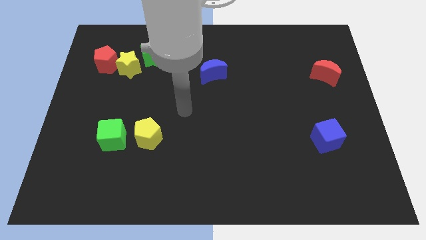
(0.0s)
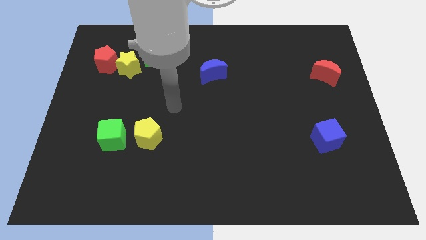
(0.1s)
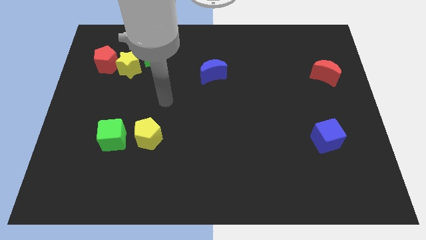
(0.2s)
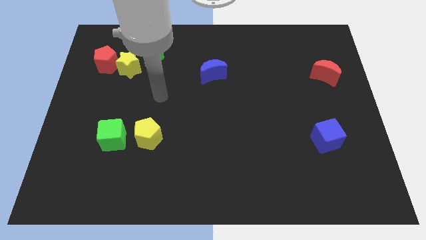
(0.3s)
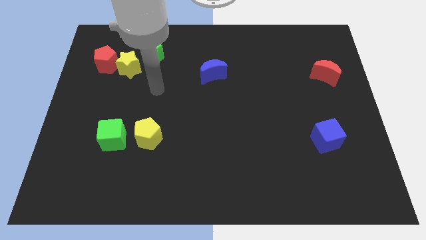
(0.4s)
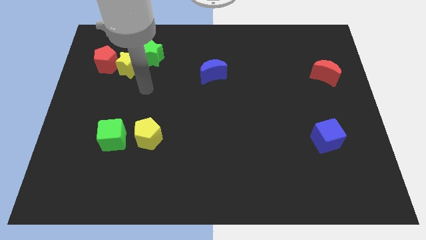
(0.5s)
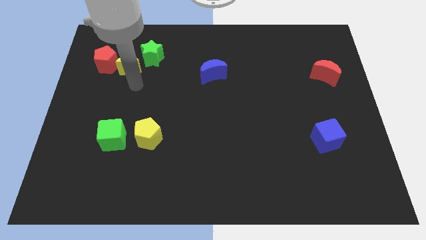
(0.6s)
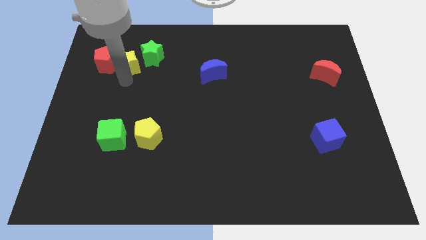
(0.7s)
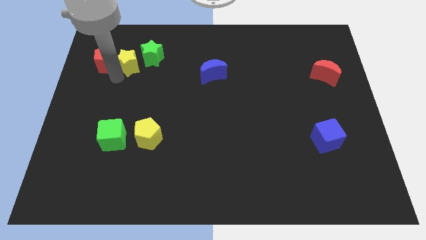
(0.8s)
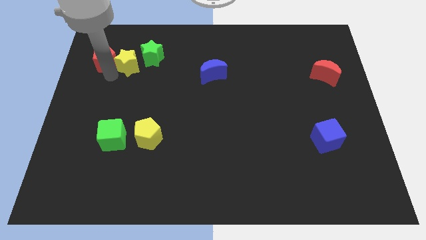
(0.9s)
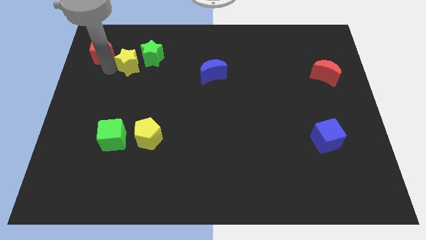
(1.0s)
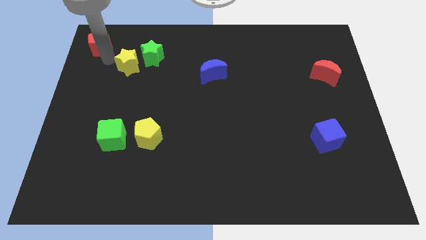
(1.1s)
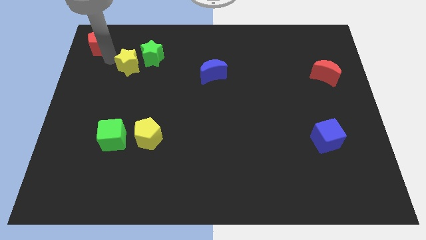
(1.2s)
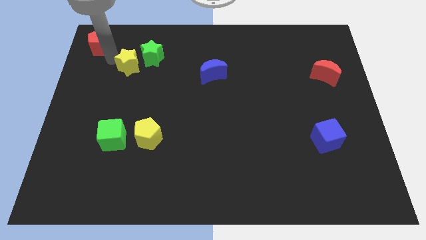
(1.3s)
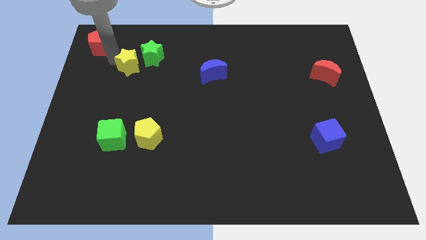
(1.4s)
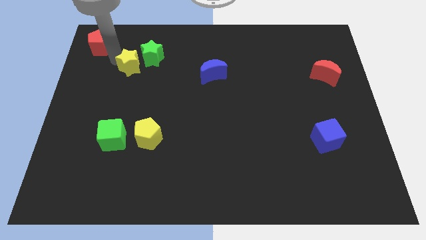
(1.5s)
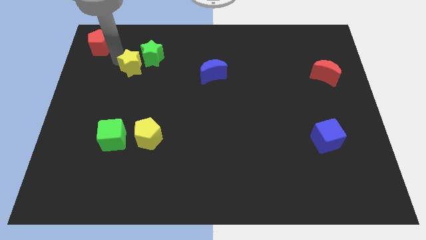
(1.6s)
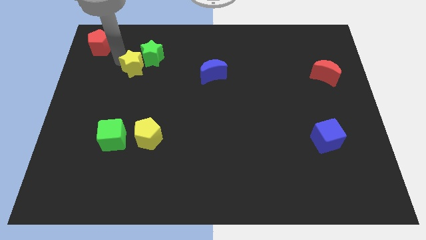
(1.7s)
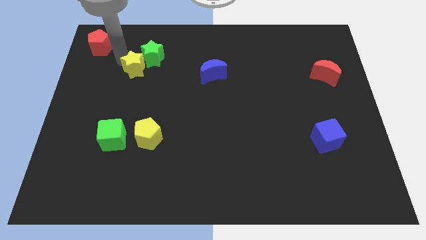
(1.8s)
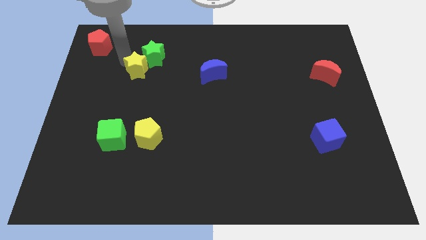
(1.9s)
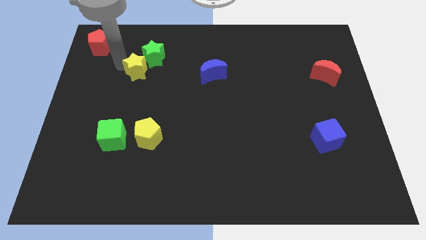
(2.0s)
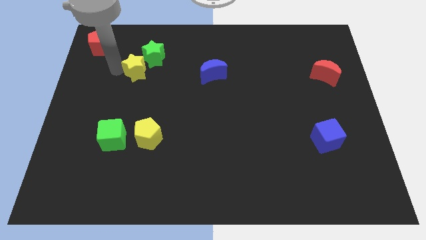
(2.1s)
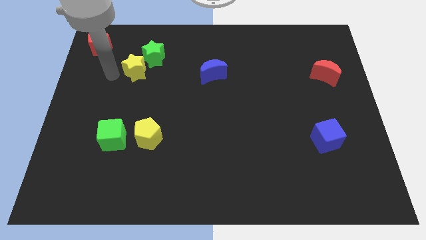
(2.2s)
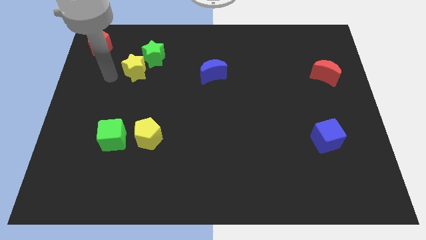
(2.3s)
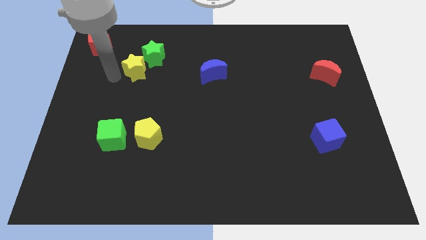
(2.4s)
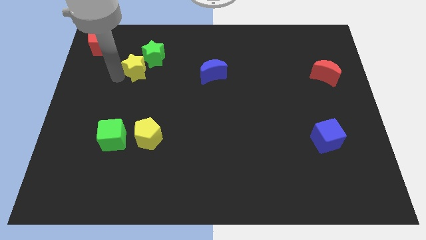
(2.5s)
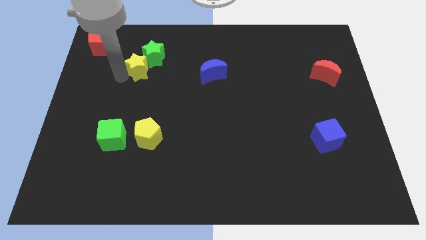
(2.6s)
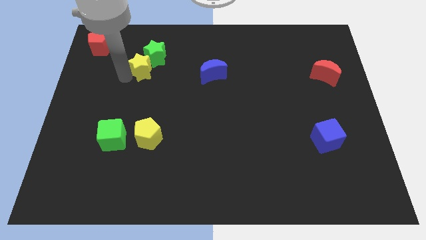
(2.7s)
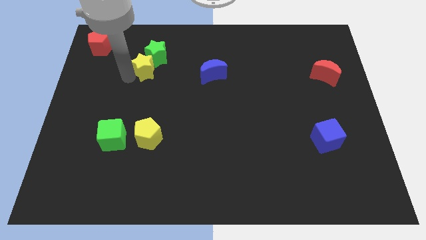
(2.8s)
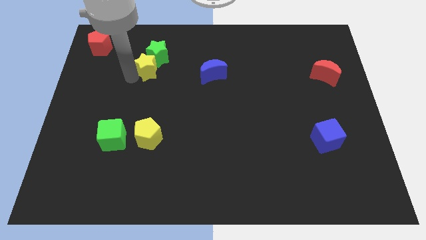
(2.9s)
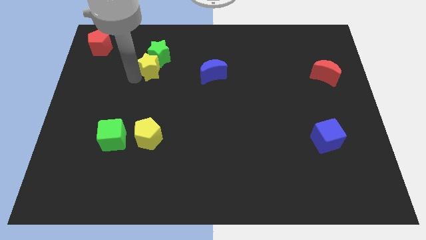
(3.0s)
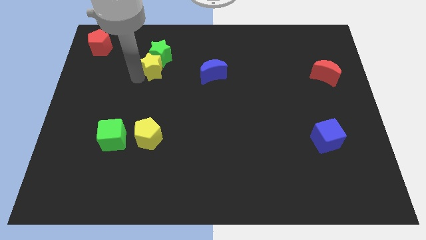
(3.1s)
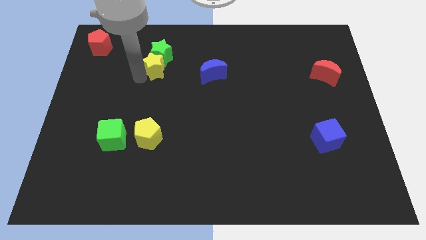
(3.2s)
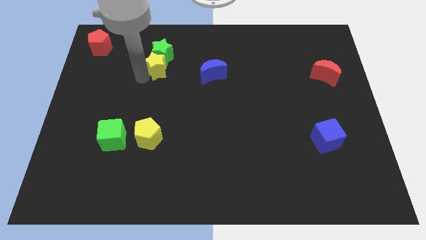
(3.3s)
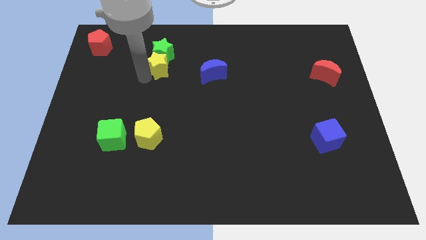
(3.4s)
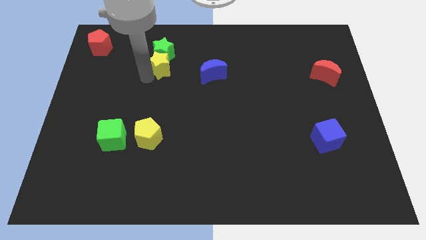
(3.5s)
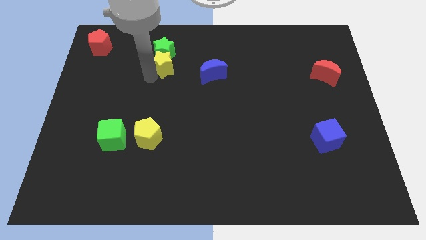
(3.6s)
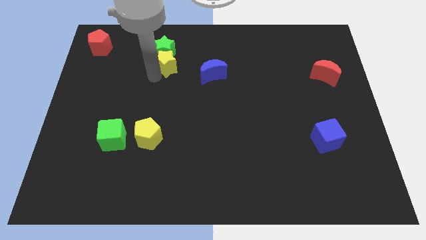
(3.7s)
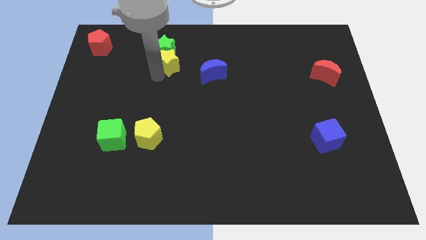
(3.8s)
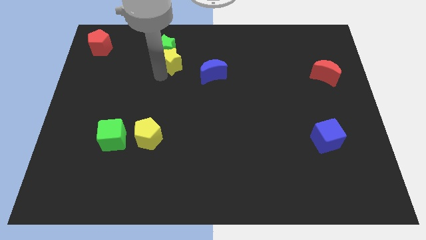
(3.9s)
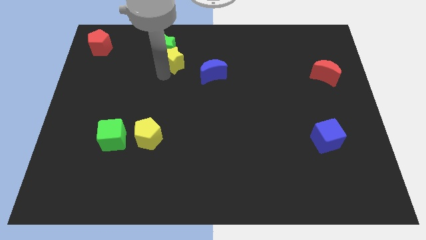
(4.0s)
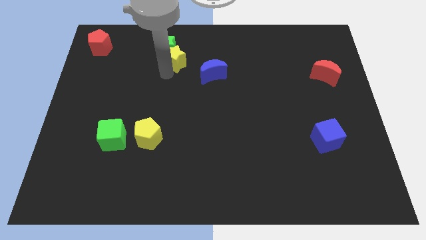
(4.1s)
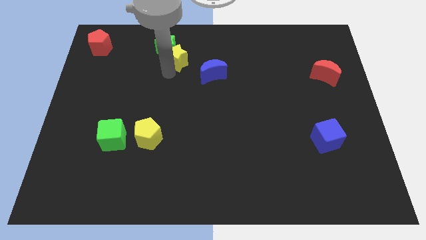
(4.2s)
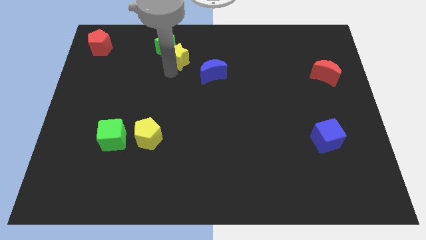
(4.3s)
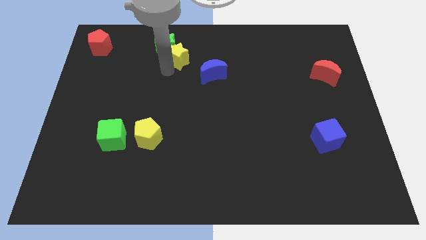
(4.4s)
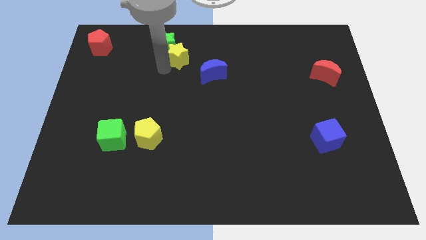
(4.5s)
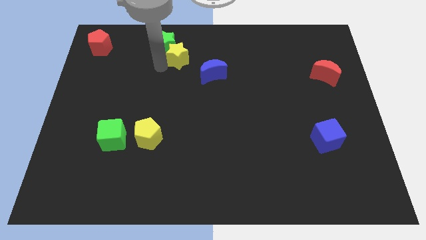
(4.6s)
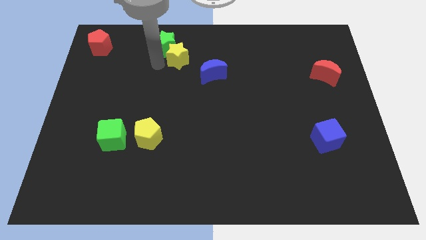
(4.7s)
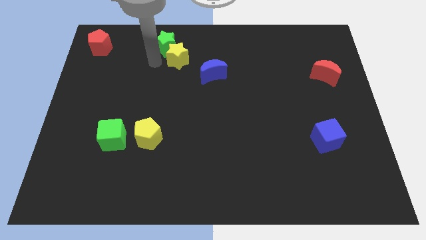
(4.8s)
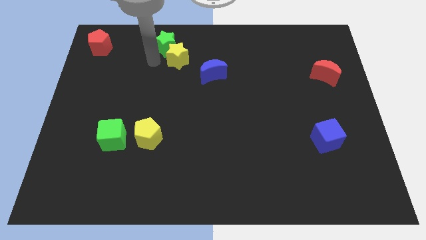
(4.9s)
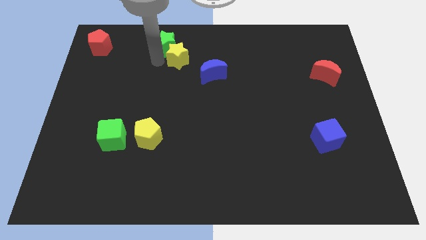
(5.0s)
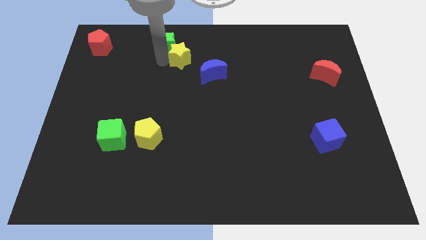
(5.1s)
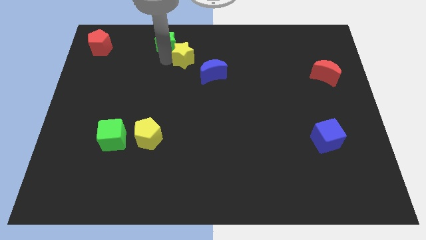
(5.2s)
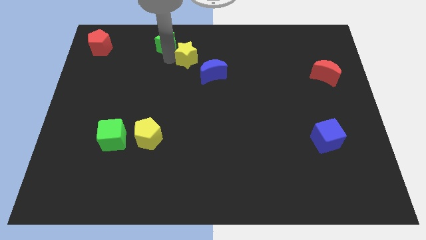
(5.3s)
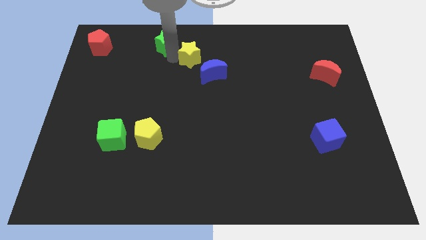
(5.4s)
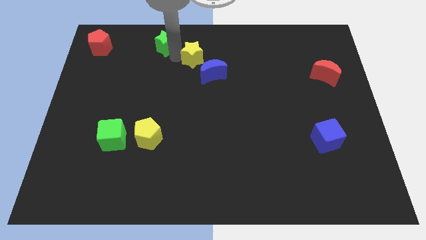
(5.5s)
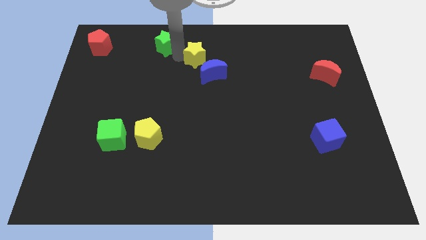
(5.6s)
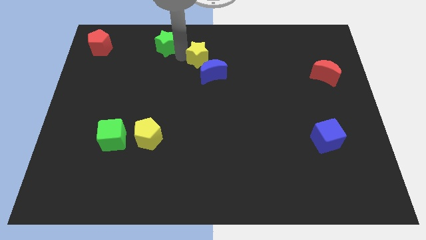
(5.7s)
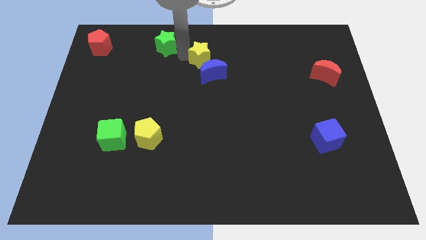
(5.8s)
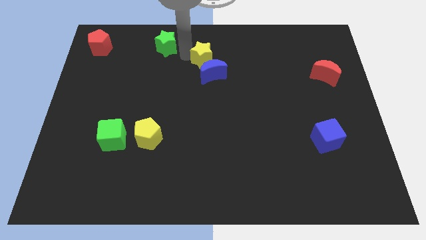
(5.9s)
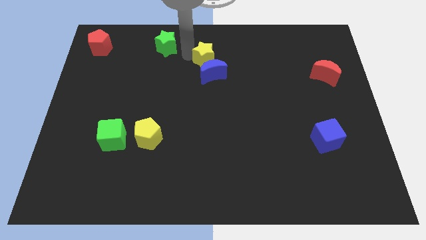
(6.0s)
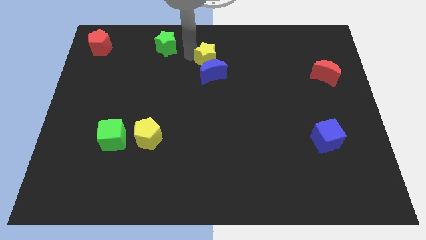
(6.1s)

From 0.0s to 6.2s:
put the yellow star to the top right of the blue moon

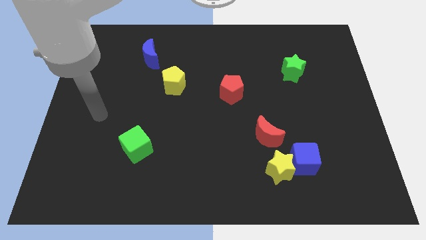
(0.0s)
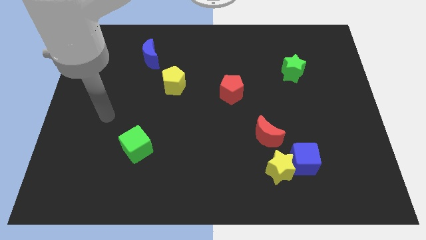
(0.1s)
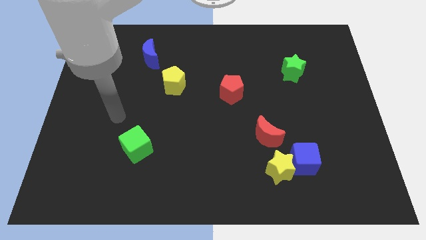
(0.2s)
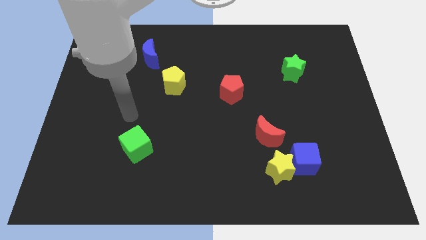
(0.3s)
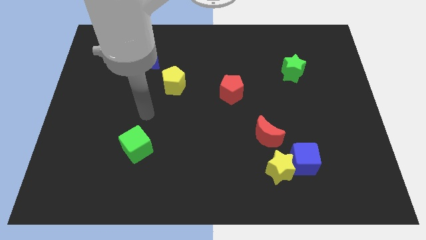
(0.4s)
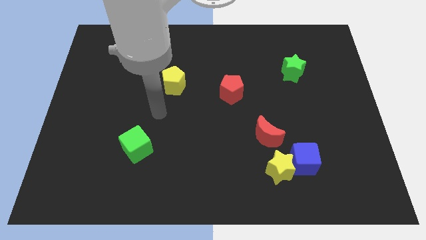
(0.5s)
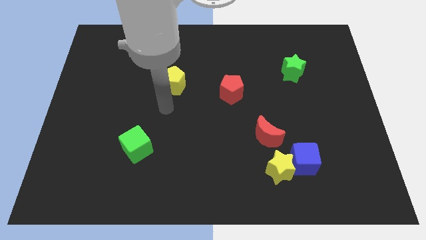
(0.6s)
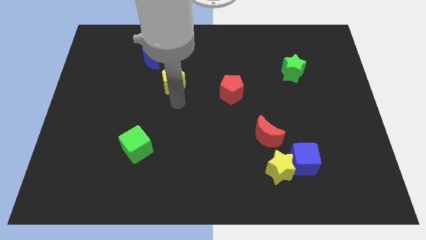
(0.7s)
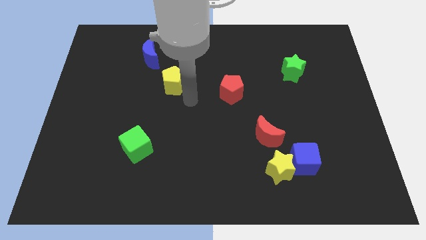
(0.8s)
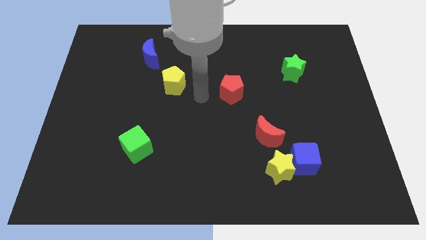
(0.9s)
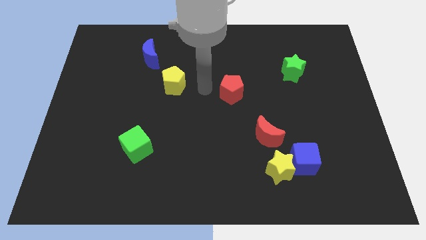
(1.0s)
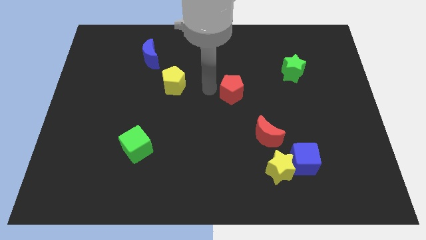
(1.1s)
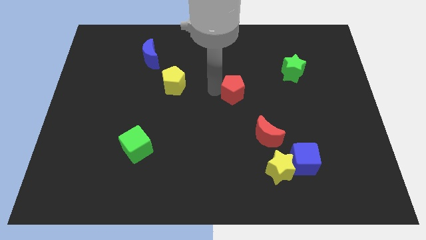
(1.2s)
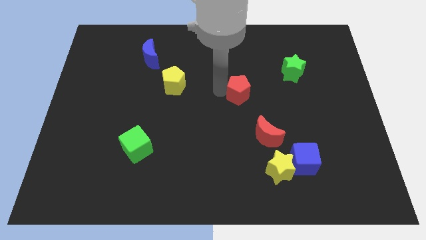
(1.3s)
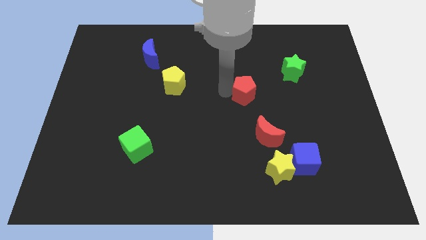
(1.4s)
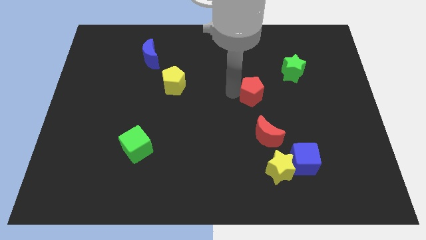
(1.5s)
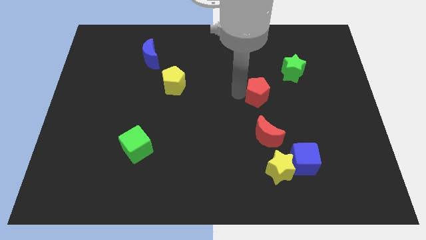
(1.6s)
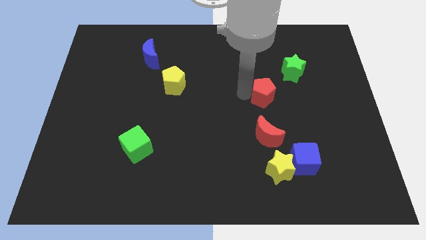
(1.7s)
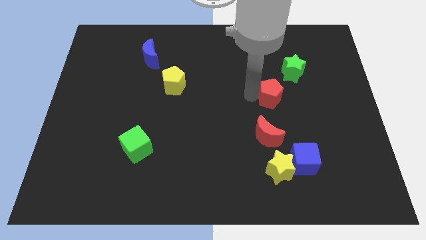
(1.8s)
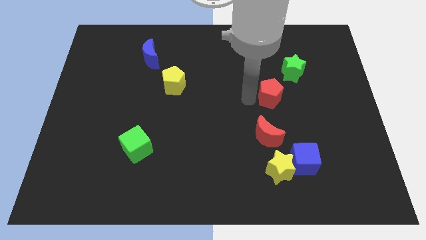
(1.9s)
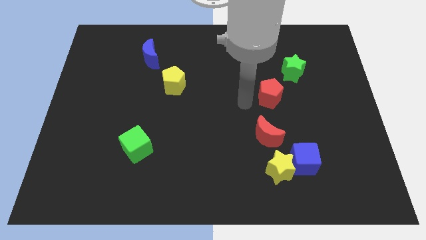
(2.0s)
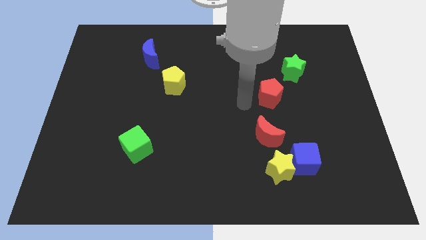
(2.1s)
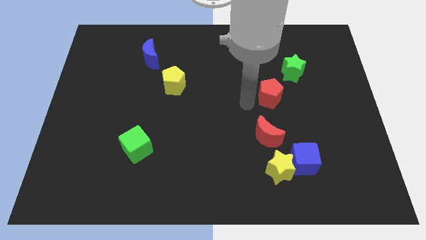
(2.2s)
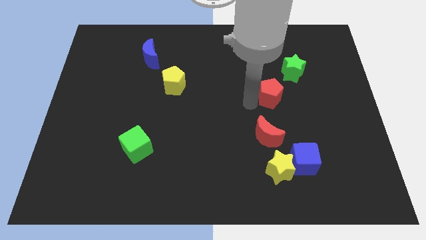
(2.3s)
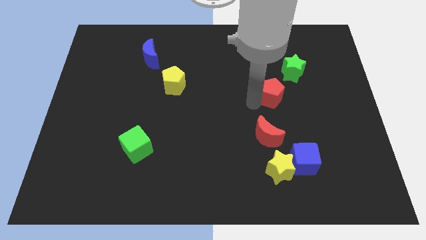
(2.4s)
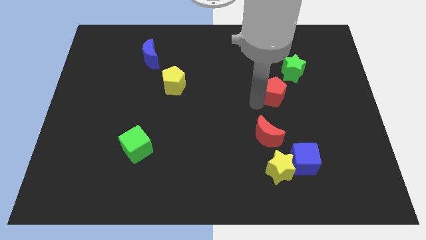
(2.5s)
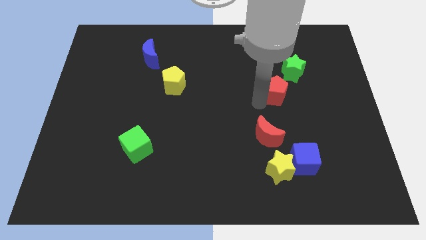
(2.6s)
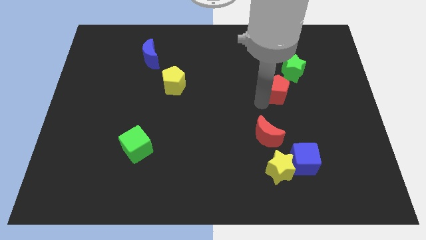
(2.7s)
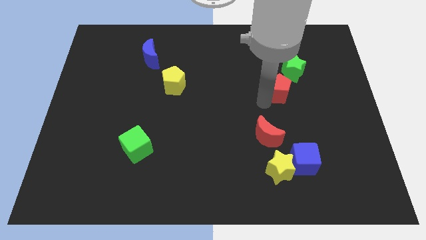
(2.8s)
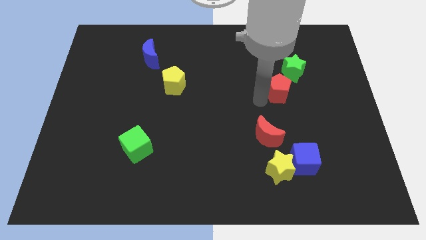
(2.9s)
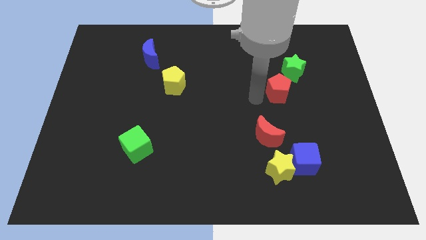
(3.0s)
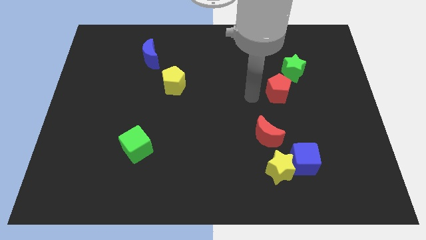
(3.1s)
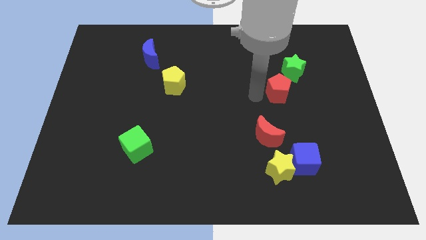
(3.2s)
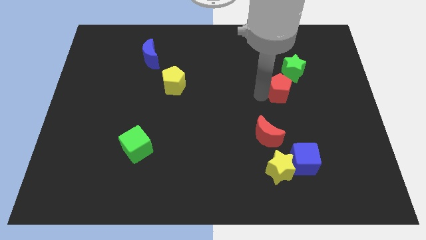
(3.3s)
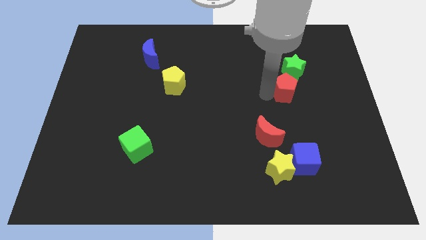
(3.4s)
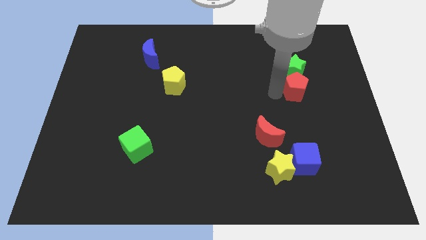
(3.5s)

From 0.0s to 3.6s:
put the red pentagon diagonally down and to the right of the green star
